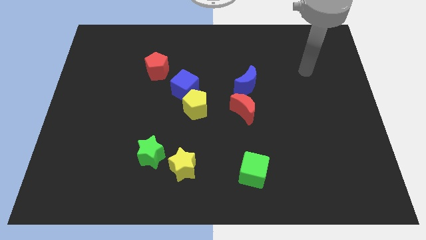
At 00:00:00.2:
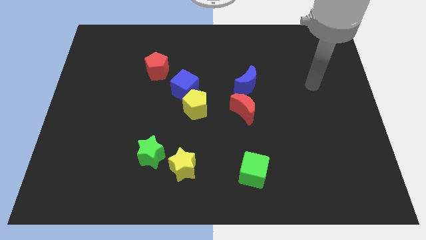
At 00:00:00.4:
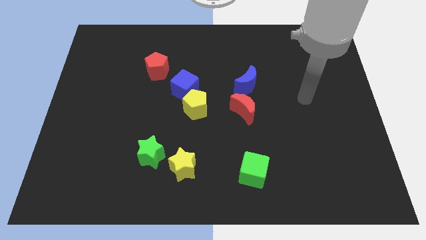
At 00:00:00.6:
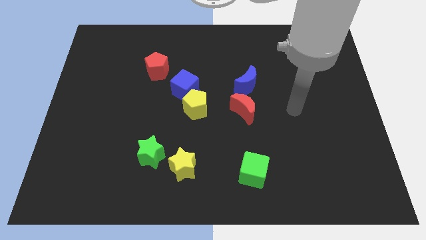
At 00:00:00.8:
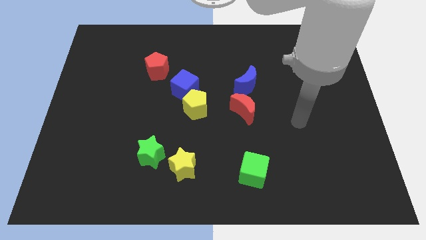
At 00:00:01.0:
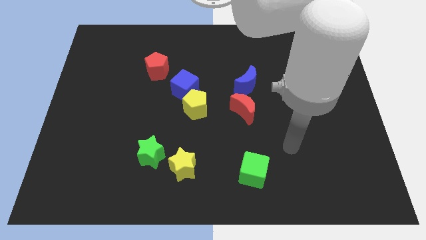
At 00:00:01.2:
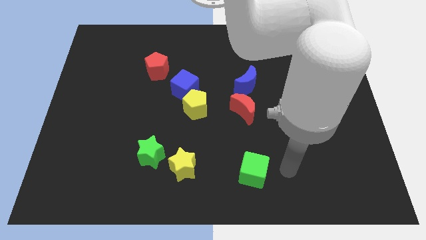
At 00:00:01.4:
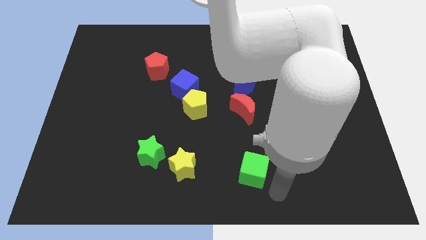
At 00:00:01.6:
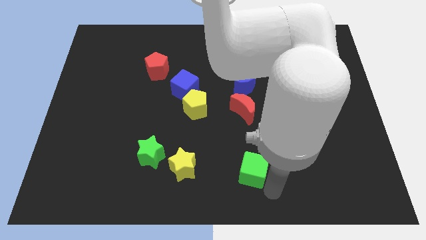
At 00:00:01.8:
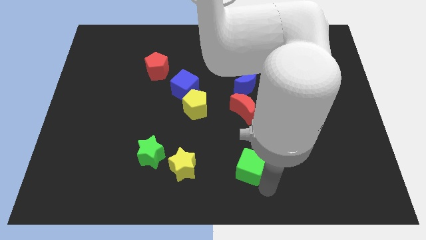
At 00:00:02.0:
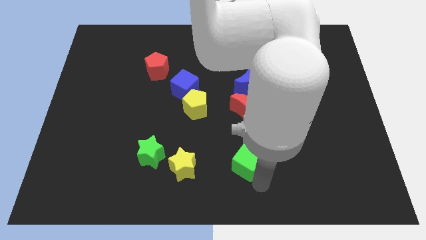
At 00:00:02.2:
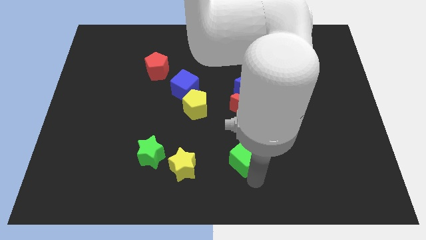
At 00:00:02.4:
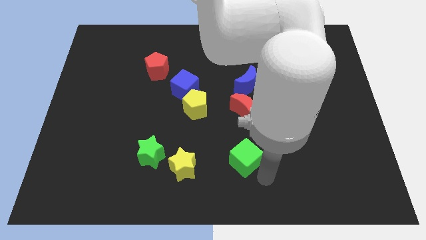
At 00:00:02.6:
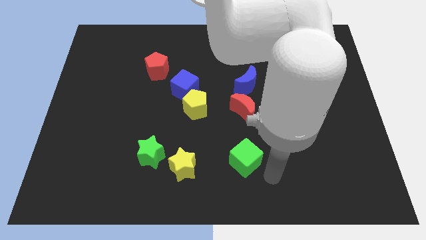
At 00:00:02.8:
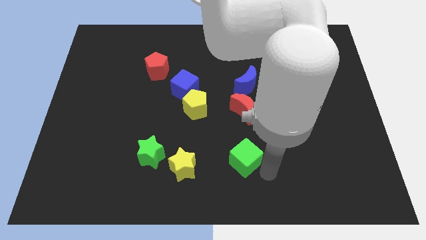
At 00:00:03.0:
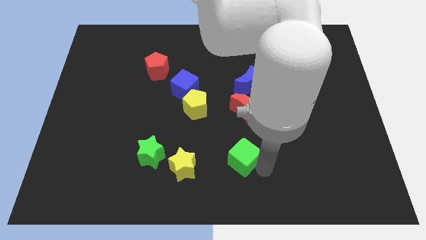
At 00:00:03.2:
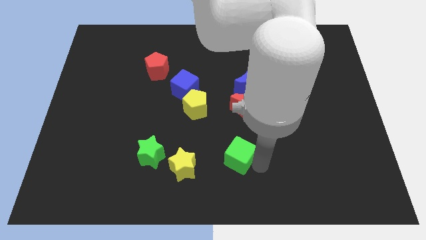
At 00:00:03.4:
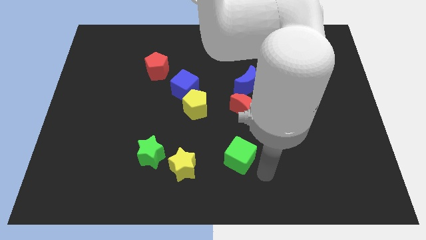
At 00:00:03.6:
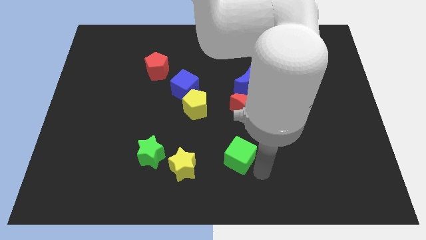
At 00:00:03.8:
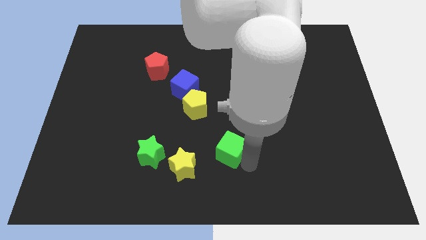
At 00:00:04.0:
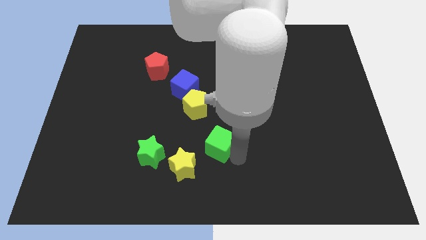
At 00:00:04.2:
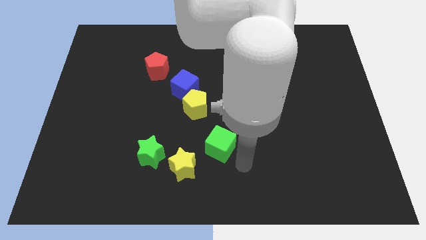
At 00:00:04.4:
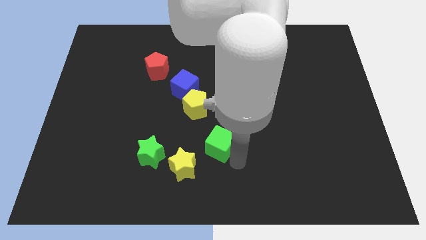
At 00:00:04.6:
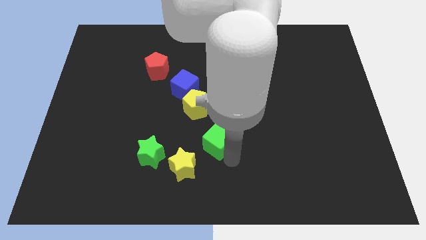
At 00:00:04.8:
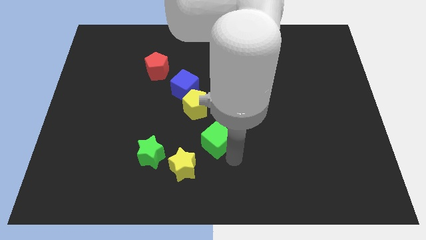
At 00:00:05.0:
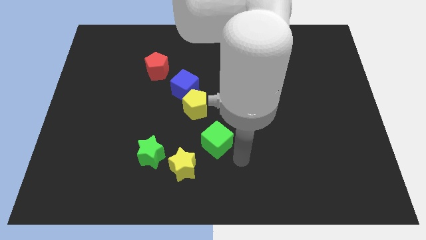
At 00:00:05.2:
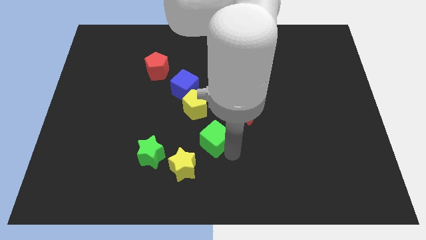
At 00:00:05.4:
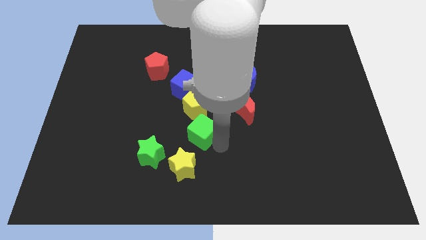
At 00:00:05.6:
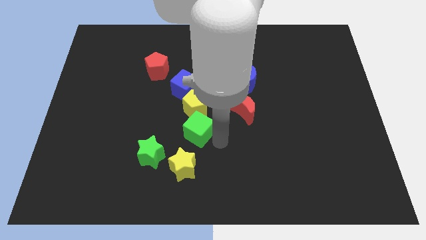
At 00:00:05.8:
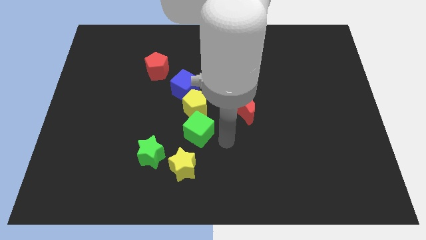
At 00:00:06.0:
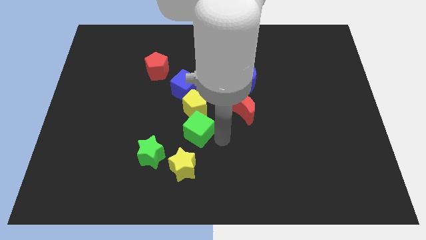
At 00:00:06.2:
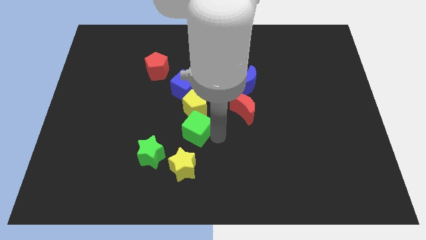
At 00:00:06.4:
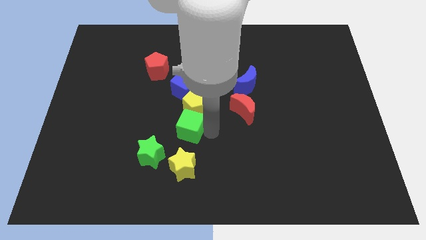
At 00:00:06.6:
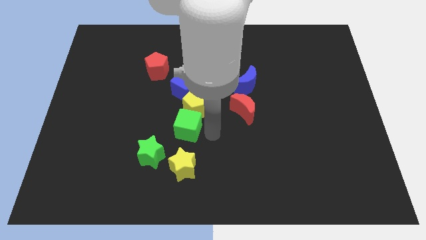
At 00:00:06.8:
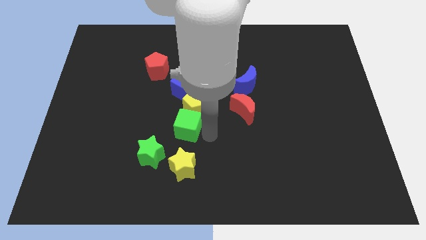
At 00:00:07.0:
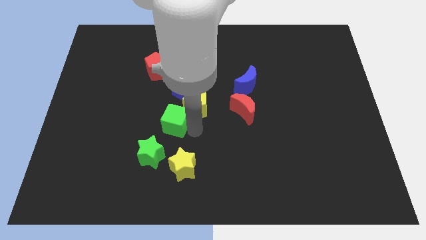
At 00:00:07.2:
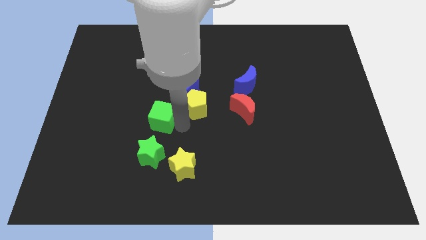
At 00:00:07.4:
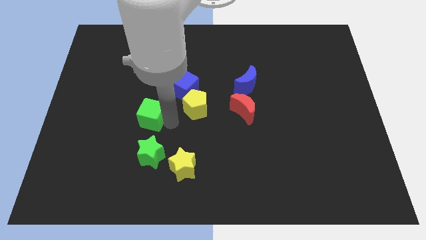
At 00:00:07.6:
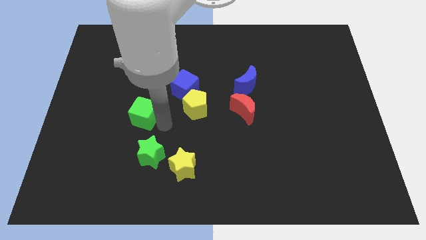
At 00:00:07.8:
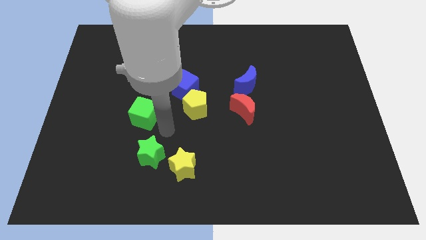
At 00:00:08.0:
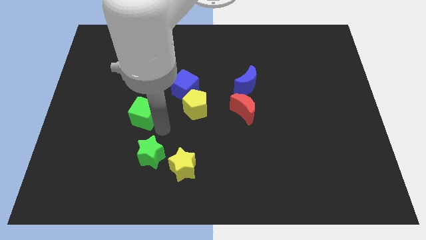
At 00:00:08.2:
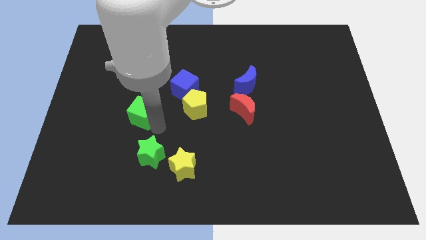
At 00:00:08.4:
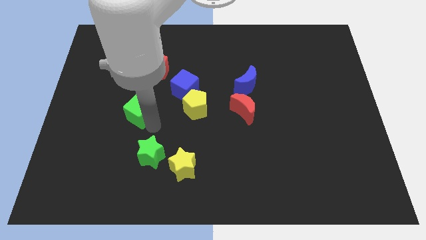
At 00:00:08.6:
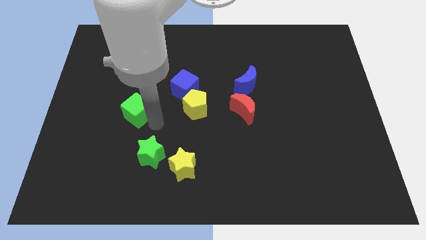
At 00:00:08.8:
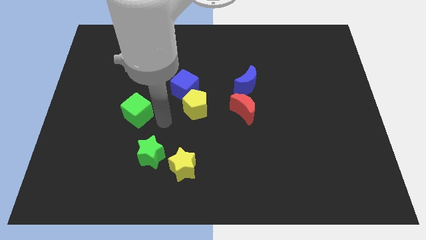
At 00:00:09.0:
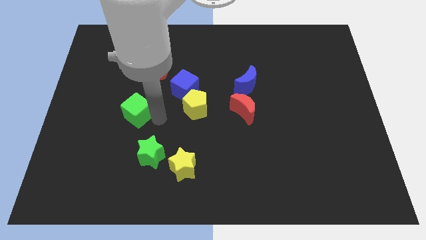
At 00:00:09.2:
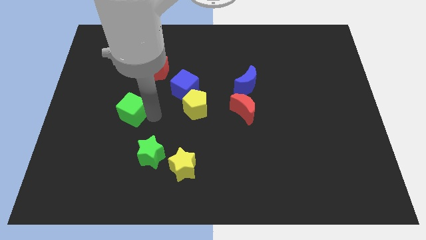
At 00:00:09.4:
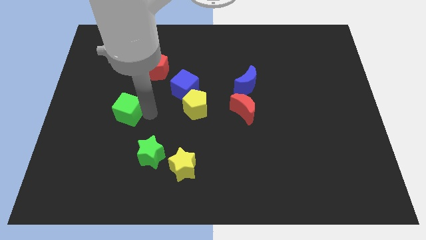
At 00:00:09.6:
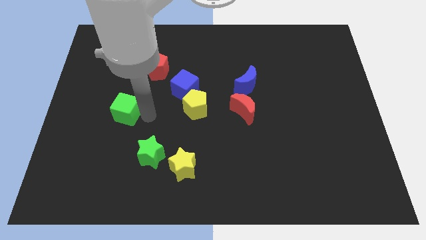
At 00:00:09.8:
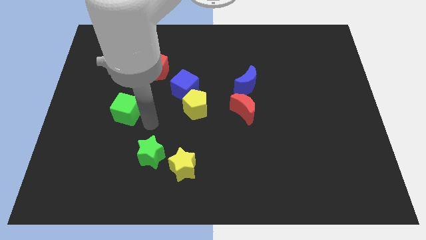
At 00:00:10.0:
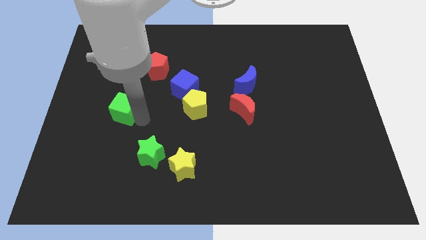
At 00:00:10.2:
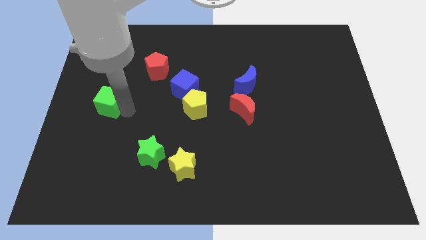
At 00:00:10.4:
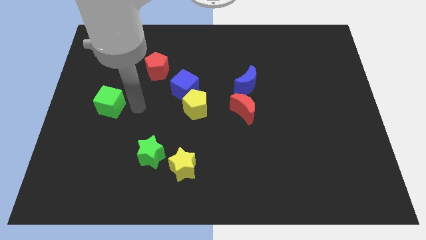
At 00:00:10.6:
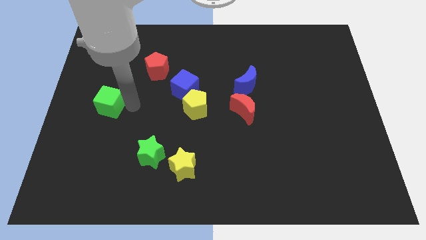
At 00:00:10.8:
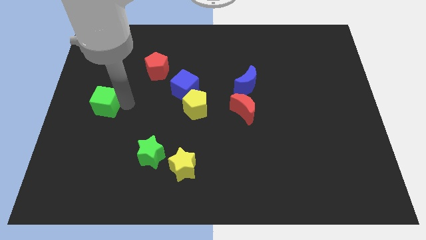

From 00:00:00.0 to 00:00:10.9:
put the green cube to the center left

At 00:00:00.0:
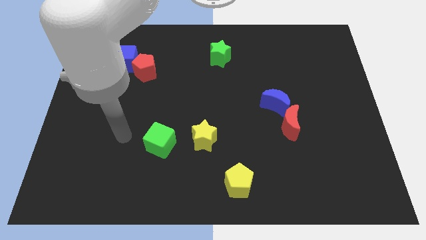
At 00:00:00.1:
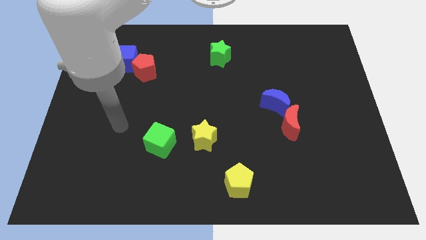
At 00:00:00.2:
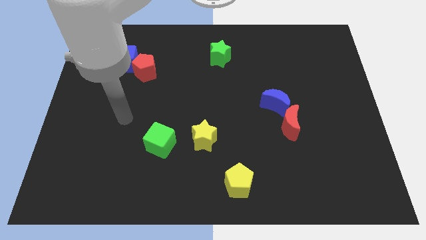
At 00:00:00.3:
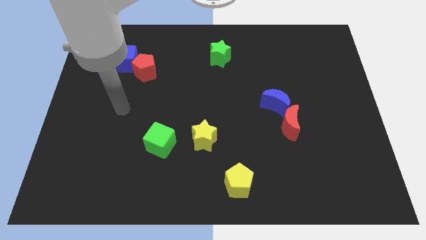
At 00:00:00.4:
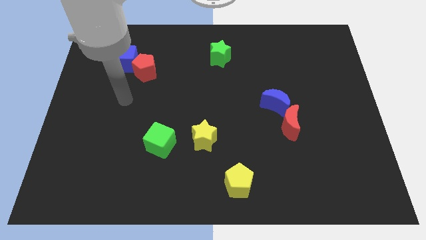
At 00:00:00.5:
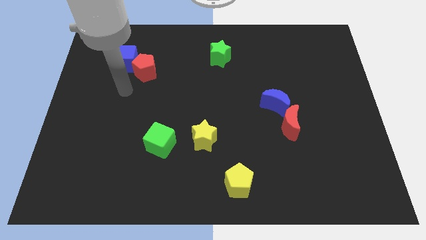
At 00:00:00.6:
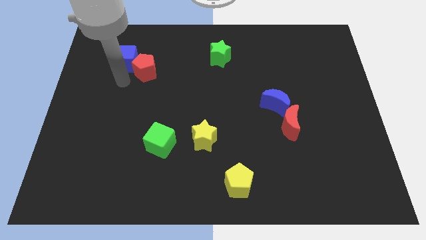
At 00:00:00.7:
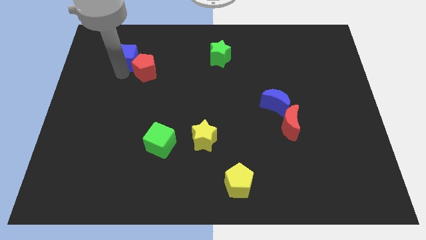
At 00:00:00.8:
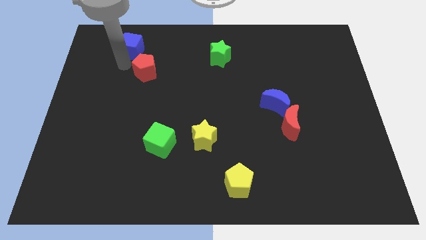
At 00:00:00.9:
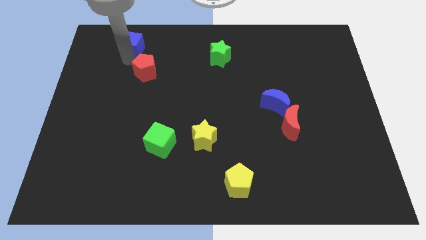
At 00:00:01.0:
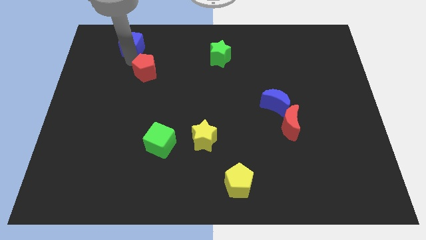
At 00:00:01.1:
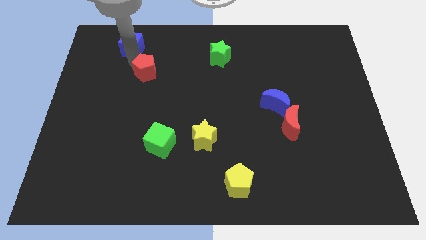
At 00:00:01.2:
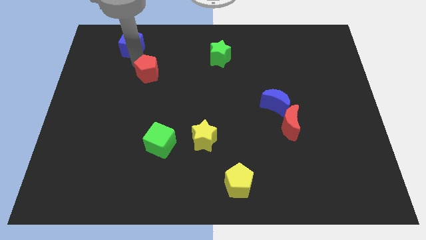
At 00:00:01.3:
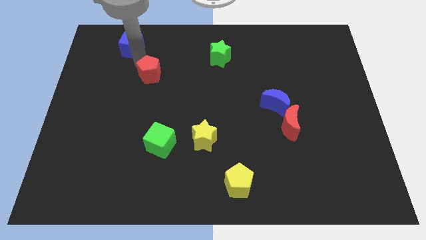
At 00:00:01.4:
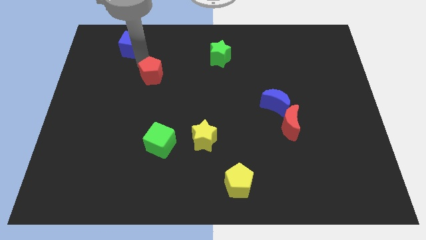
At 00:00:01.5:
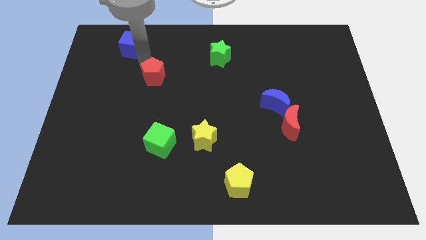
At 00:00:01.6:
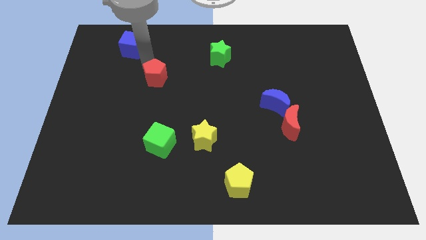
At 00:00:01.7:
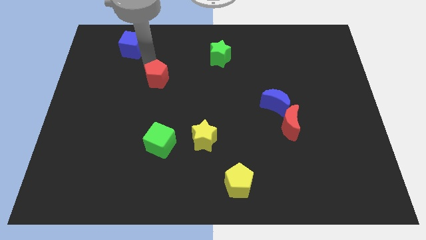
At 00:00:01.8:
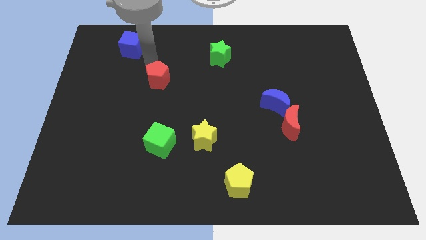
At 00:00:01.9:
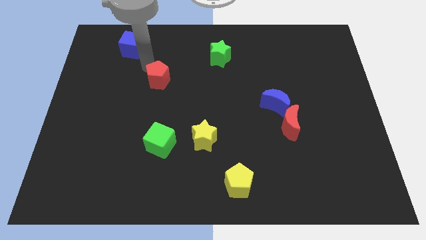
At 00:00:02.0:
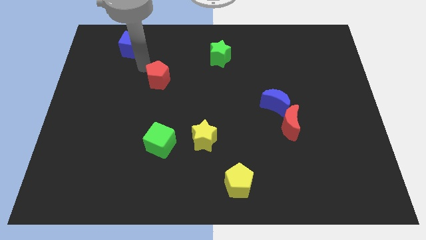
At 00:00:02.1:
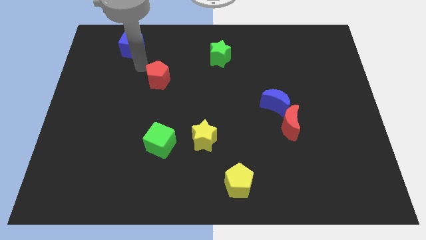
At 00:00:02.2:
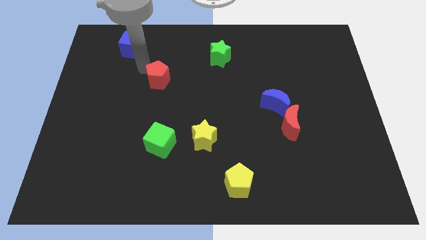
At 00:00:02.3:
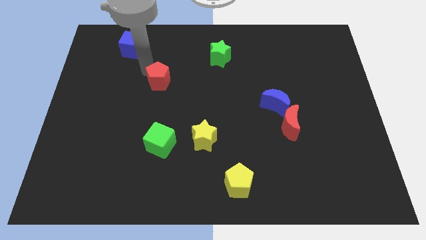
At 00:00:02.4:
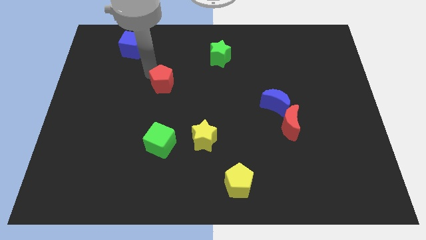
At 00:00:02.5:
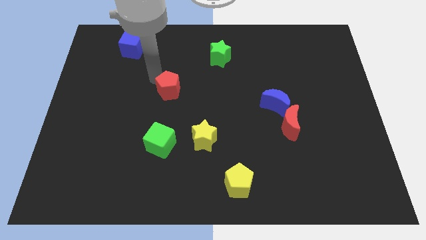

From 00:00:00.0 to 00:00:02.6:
slide the red pentagon to the center
